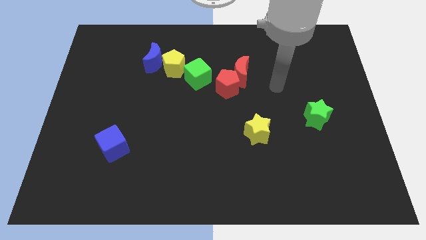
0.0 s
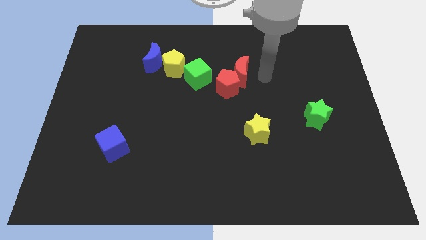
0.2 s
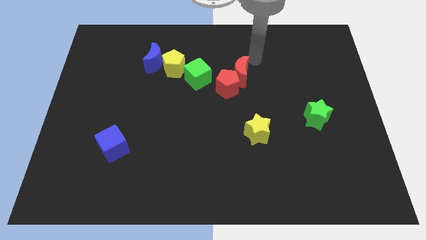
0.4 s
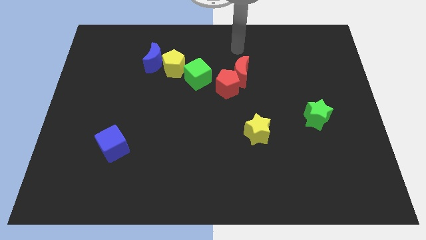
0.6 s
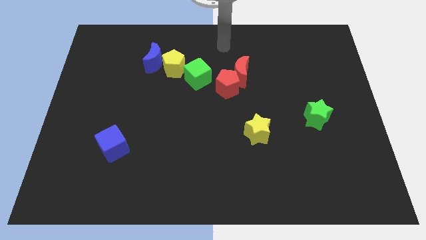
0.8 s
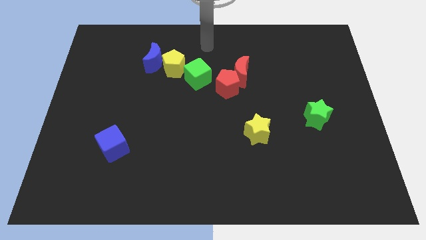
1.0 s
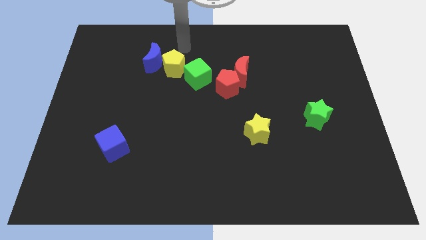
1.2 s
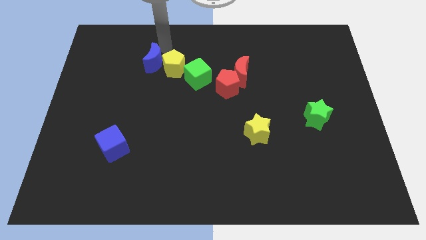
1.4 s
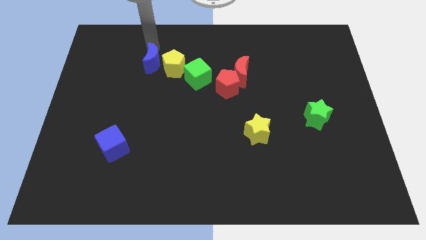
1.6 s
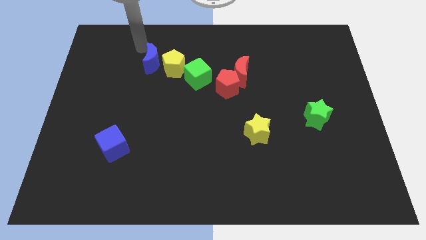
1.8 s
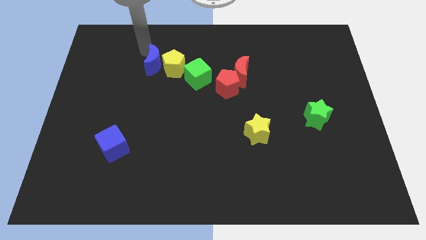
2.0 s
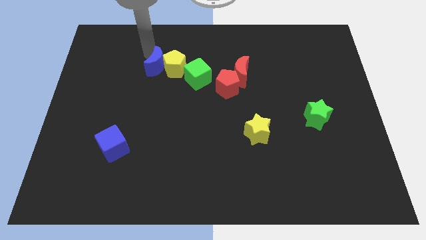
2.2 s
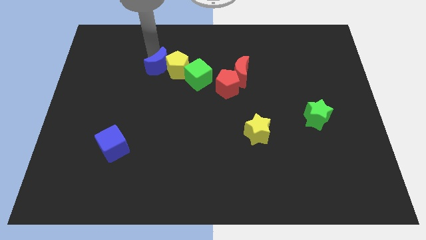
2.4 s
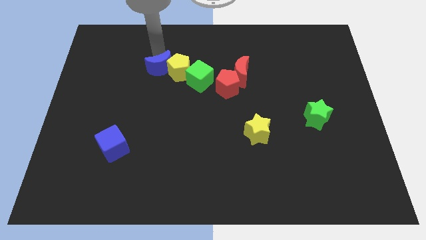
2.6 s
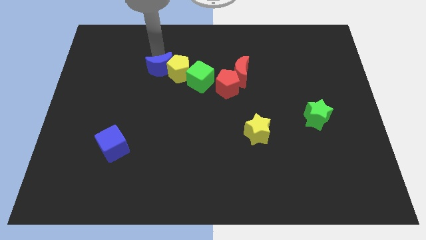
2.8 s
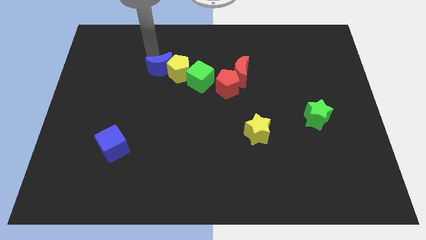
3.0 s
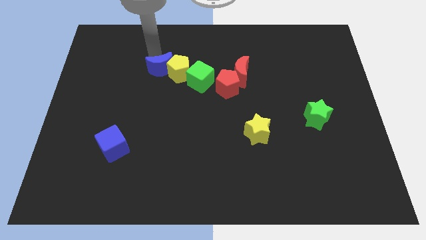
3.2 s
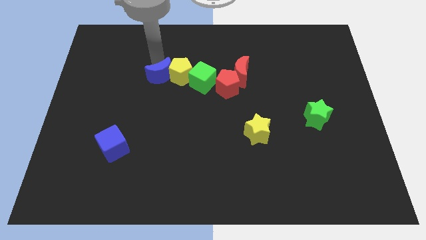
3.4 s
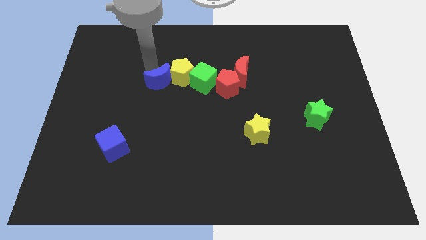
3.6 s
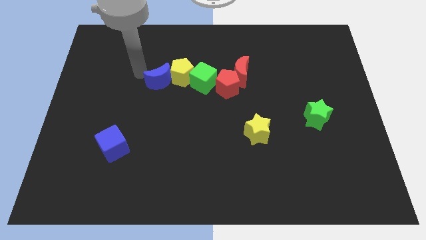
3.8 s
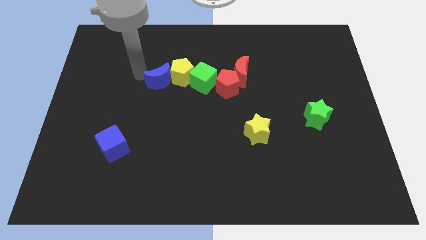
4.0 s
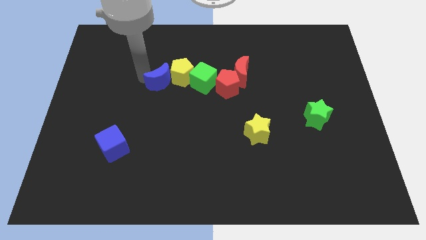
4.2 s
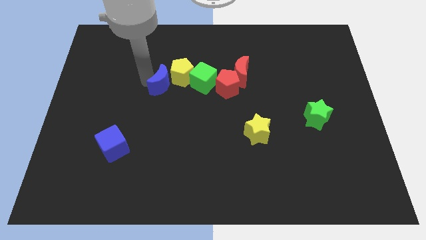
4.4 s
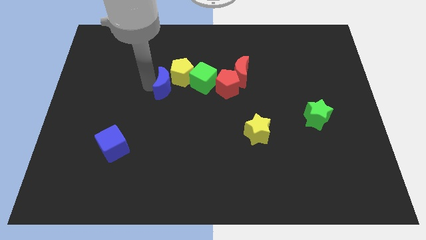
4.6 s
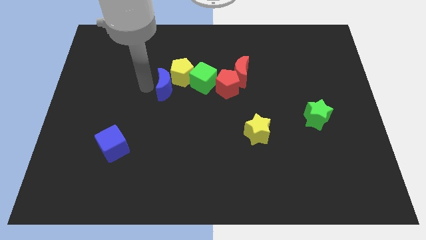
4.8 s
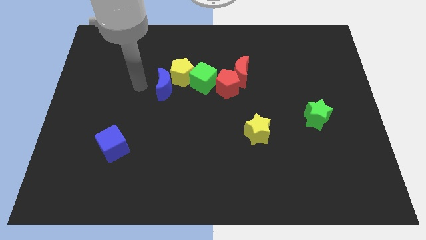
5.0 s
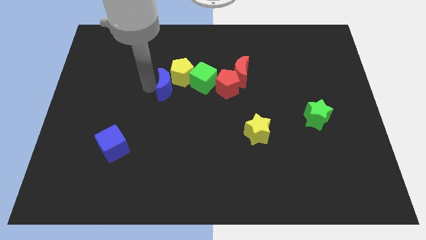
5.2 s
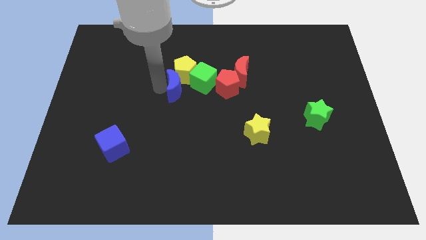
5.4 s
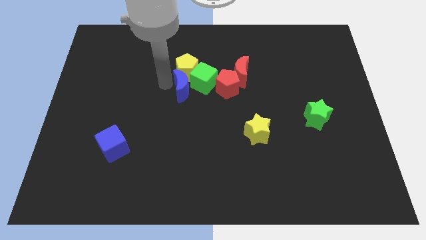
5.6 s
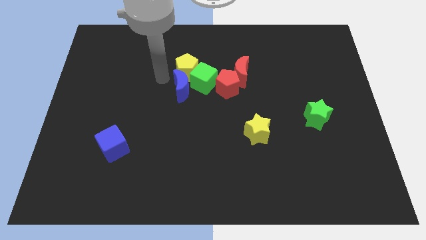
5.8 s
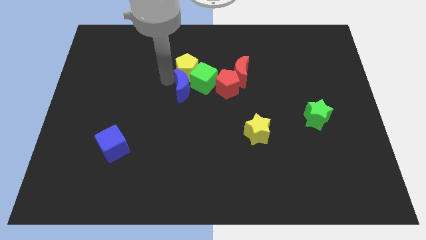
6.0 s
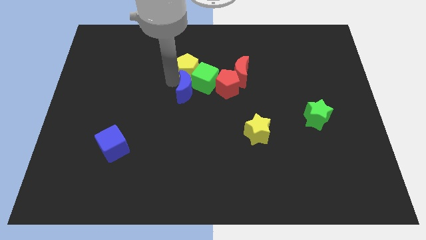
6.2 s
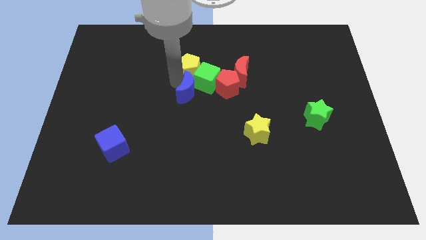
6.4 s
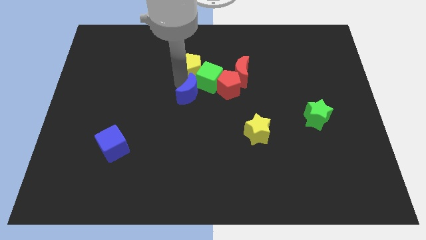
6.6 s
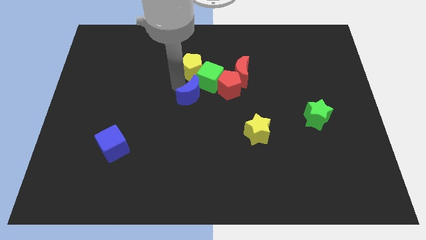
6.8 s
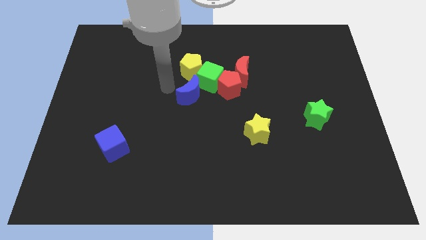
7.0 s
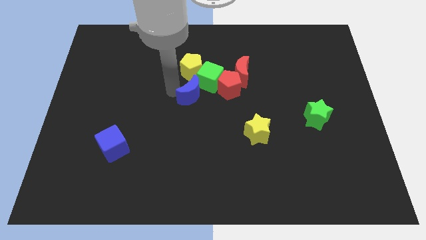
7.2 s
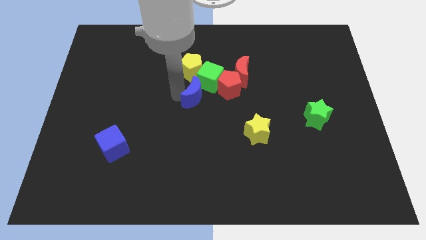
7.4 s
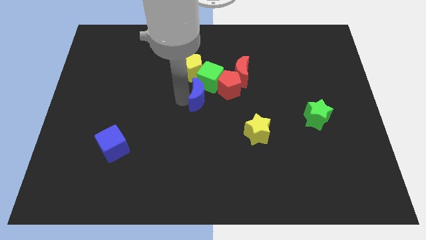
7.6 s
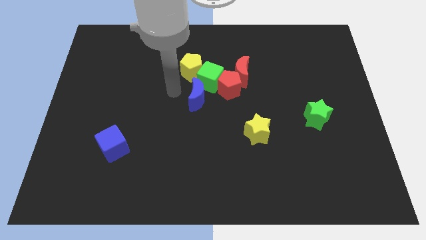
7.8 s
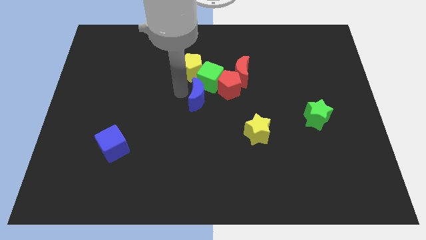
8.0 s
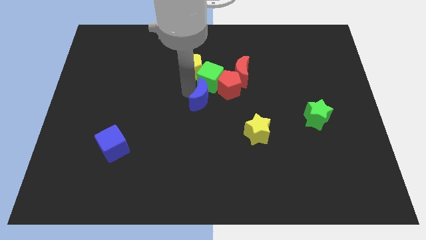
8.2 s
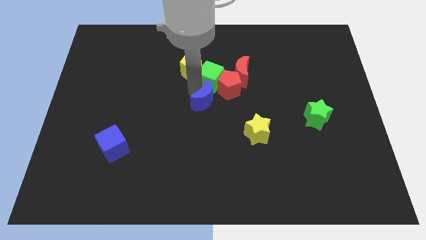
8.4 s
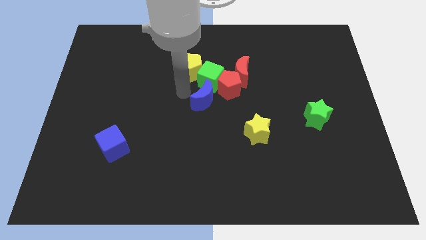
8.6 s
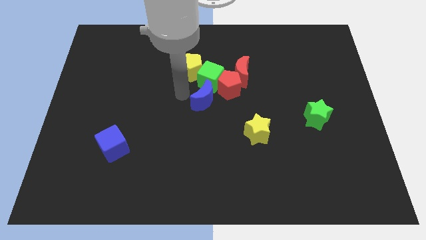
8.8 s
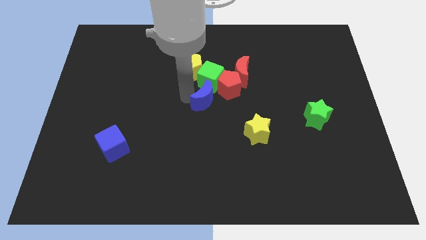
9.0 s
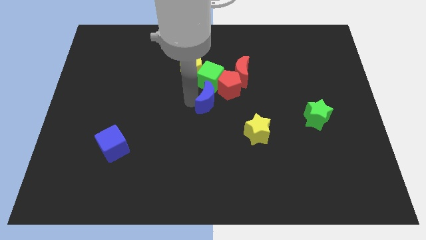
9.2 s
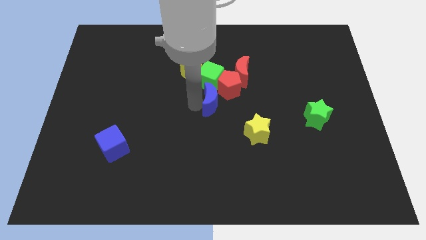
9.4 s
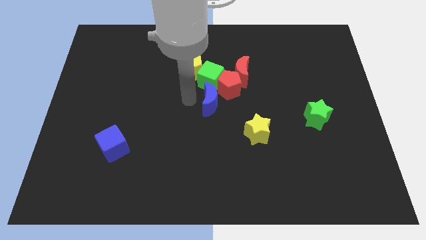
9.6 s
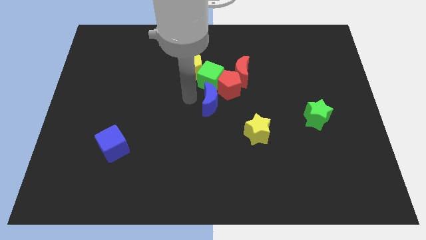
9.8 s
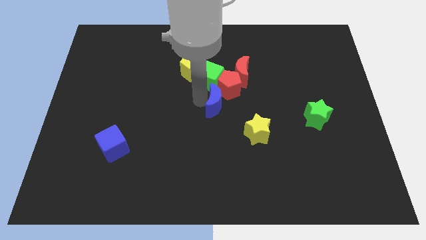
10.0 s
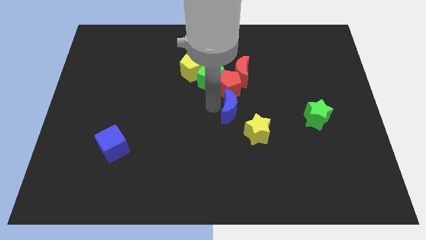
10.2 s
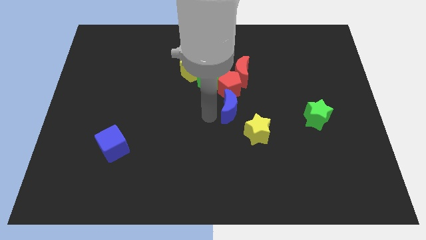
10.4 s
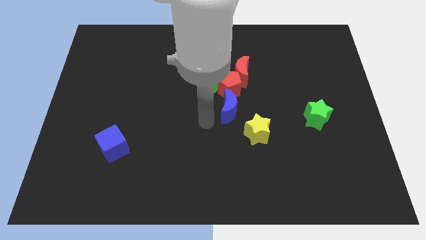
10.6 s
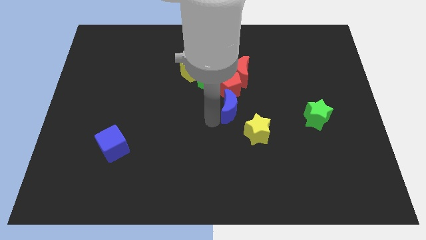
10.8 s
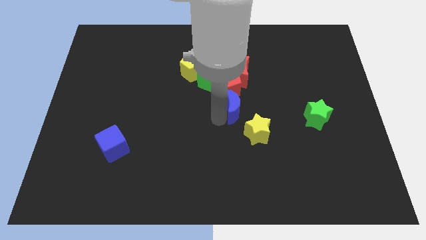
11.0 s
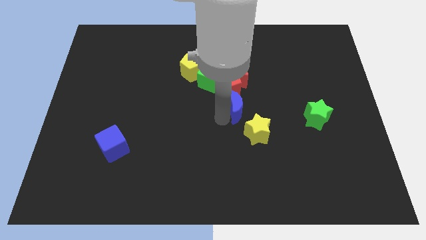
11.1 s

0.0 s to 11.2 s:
move the blue moon to the top side of the yellow star
